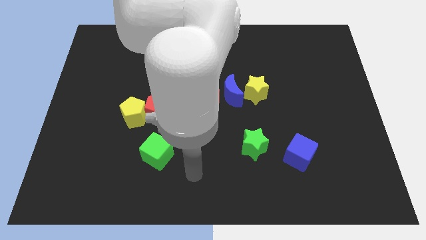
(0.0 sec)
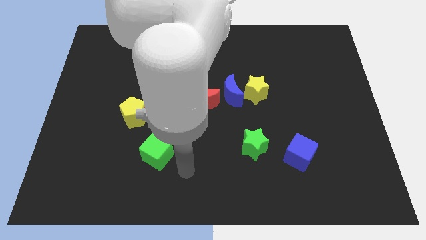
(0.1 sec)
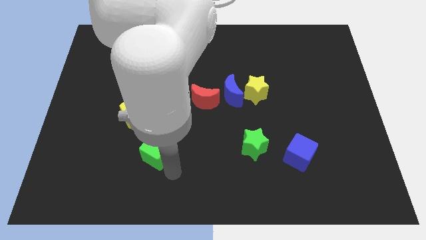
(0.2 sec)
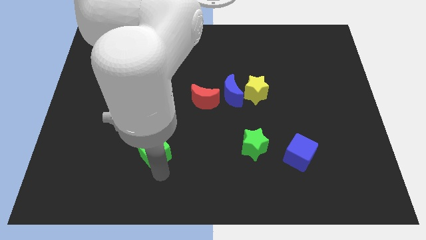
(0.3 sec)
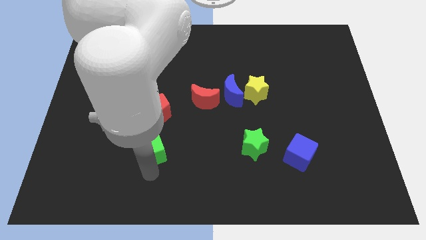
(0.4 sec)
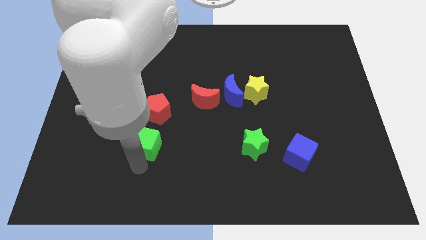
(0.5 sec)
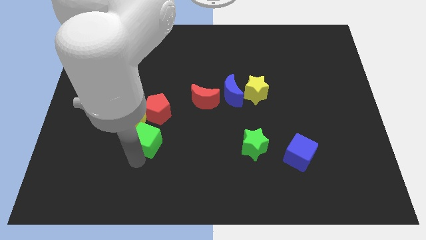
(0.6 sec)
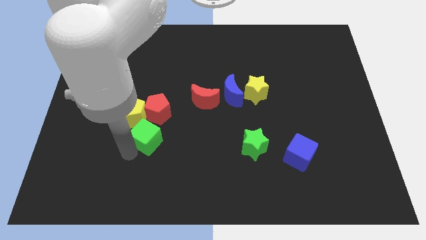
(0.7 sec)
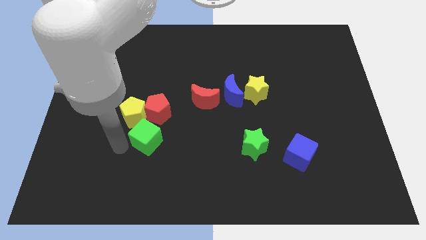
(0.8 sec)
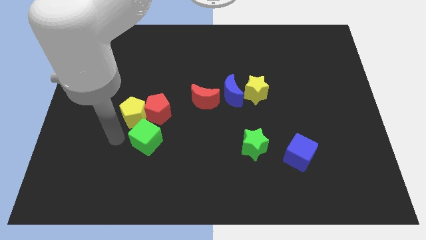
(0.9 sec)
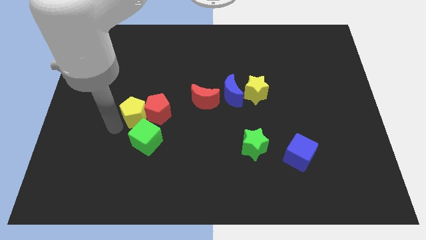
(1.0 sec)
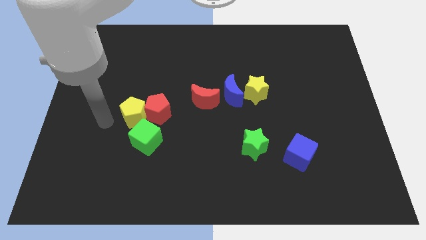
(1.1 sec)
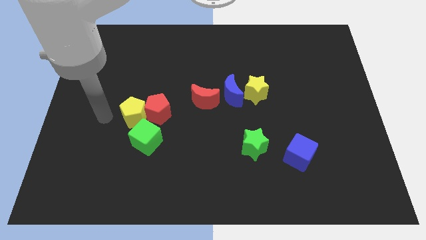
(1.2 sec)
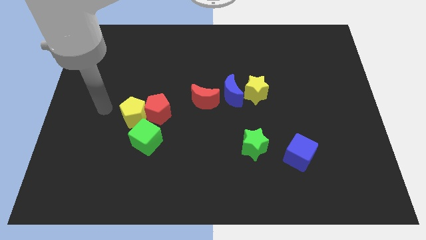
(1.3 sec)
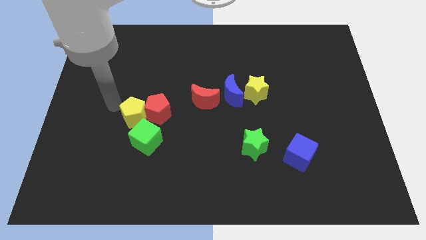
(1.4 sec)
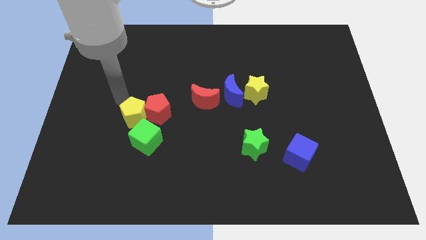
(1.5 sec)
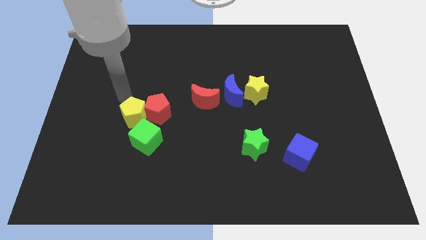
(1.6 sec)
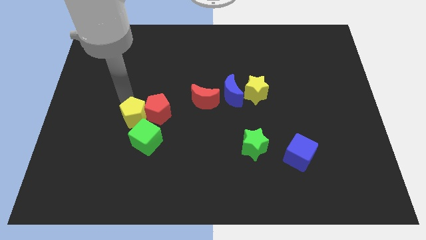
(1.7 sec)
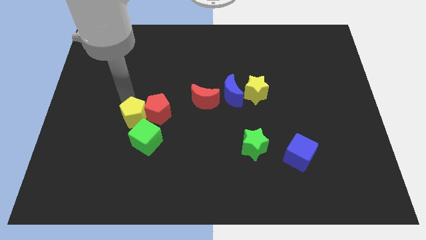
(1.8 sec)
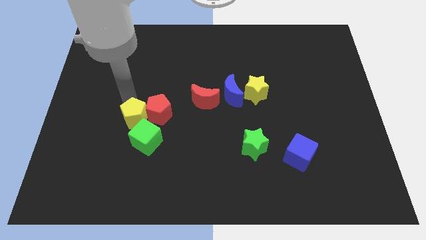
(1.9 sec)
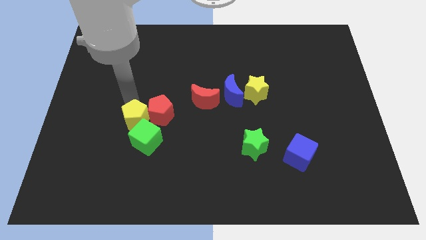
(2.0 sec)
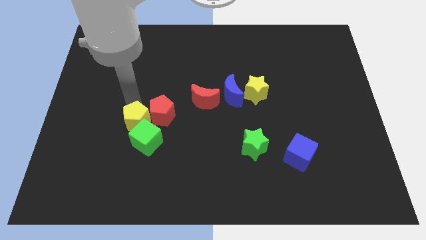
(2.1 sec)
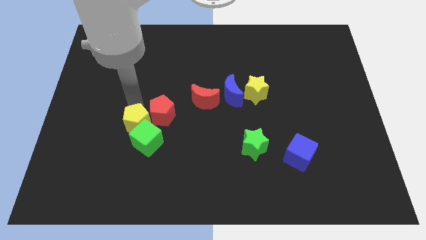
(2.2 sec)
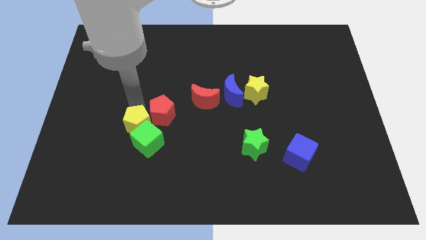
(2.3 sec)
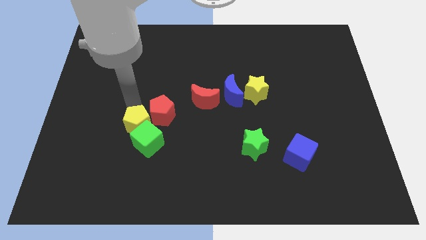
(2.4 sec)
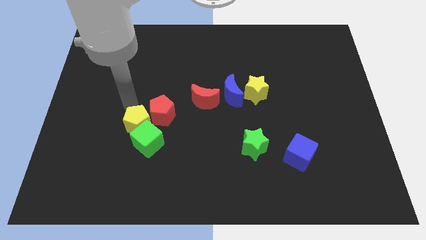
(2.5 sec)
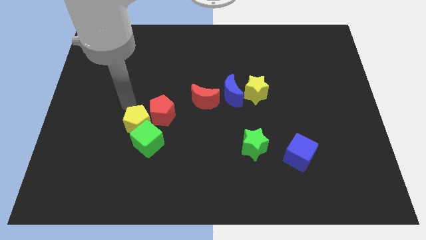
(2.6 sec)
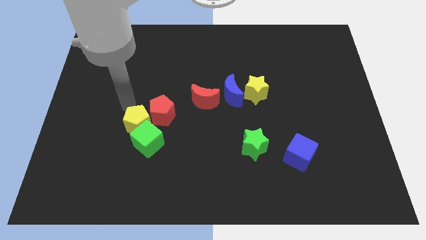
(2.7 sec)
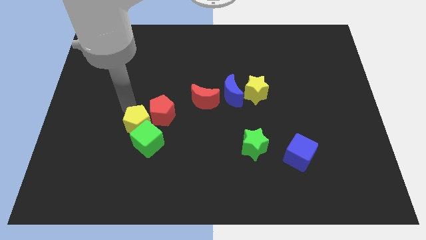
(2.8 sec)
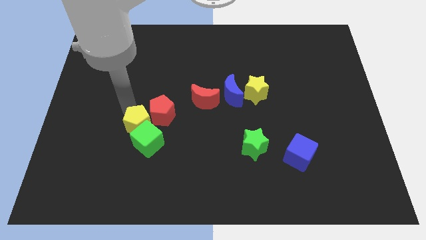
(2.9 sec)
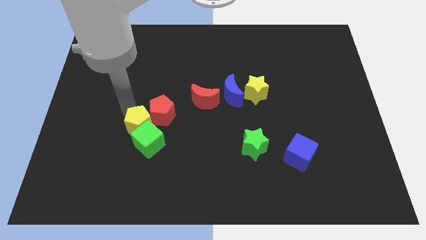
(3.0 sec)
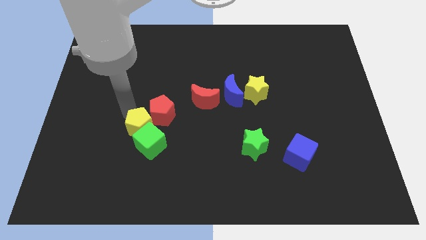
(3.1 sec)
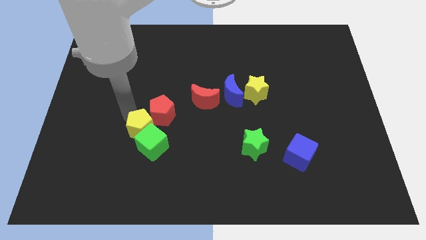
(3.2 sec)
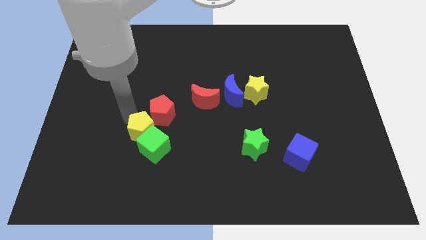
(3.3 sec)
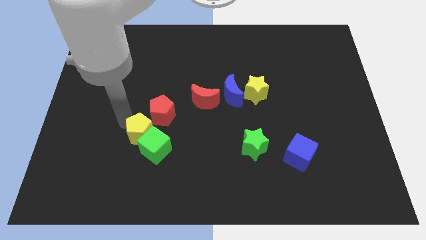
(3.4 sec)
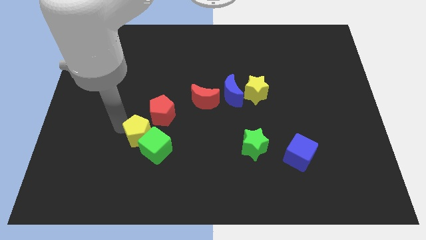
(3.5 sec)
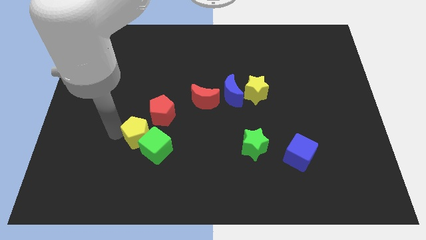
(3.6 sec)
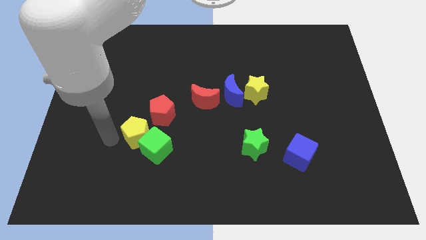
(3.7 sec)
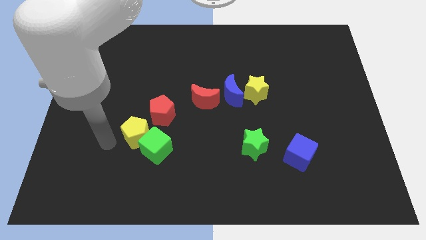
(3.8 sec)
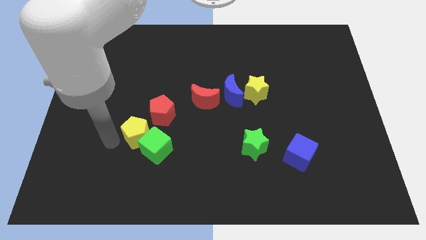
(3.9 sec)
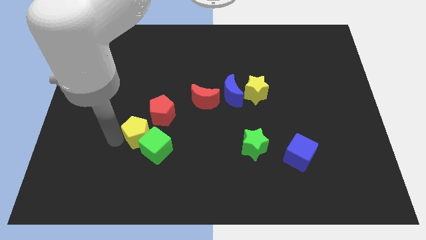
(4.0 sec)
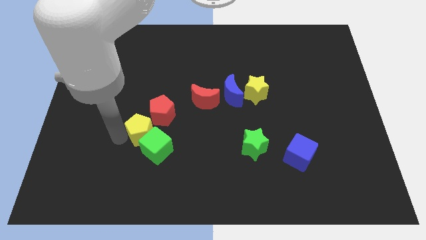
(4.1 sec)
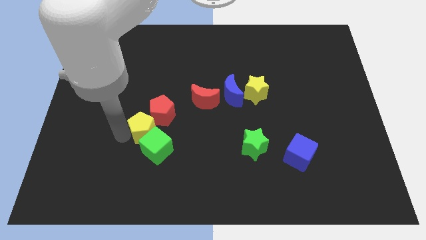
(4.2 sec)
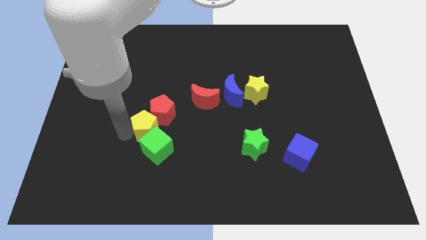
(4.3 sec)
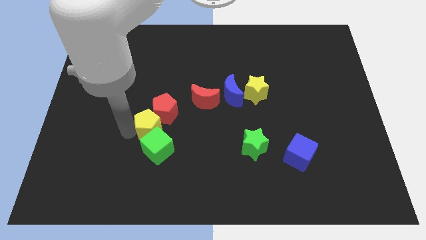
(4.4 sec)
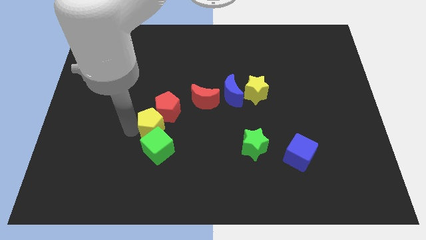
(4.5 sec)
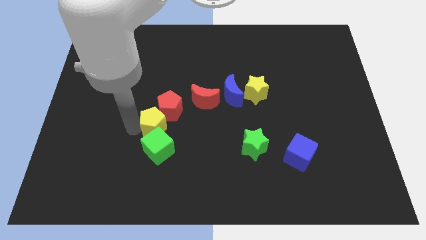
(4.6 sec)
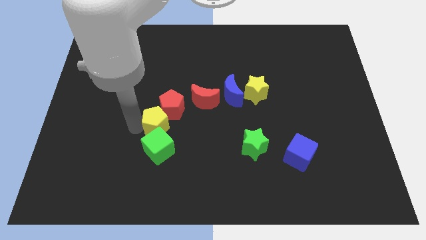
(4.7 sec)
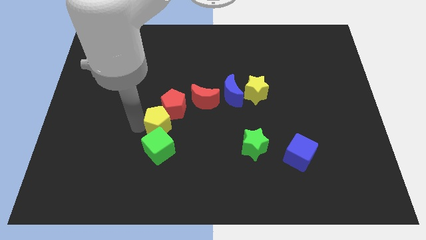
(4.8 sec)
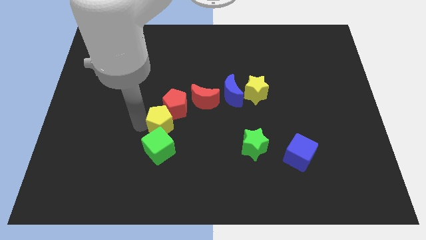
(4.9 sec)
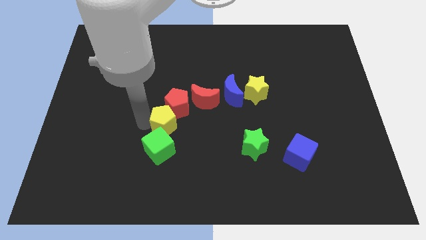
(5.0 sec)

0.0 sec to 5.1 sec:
push the yellow pentagon slightly to the right

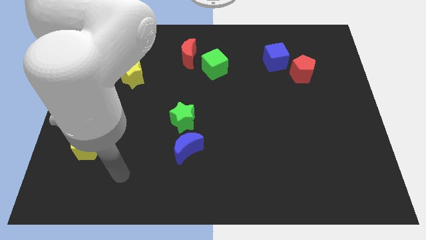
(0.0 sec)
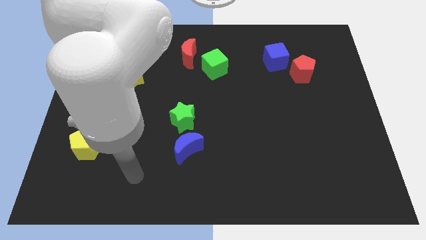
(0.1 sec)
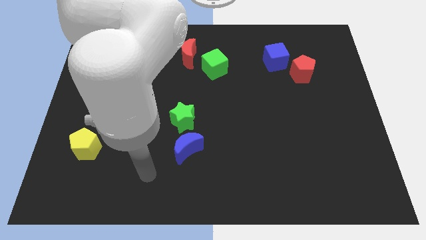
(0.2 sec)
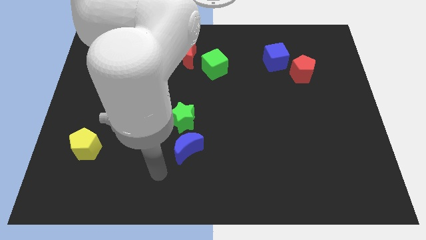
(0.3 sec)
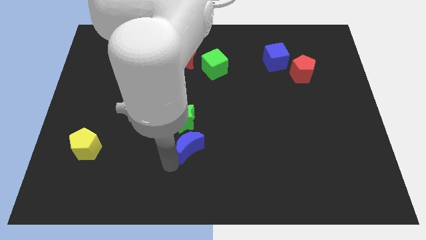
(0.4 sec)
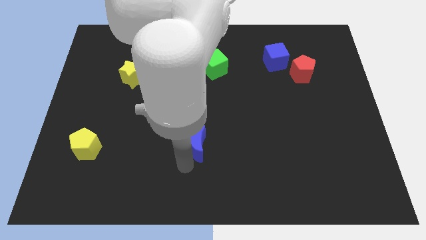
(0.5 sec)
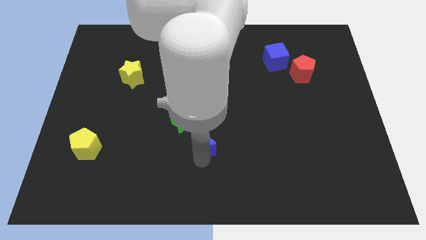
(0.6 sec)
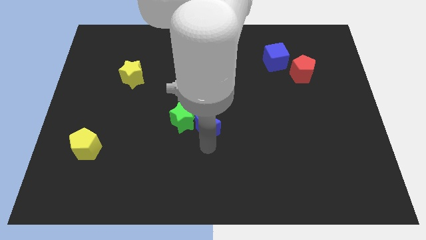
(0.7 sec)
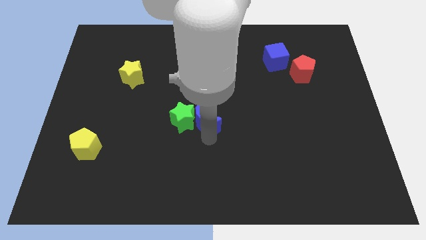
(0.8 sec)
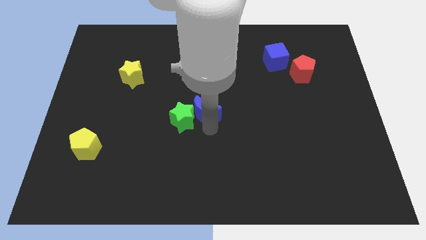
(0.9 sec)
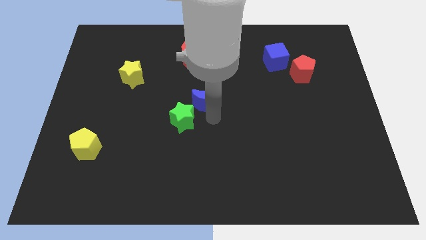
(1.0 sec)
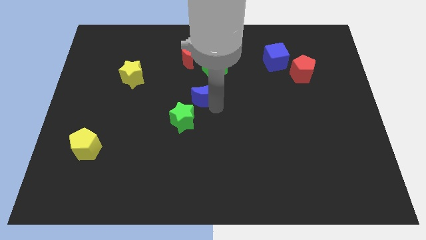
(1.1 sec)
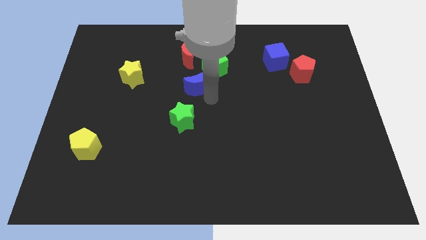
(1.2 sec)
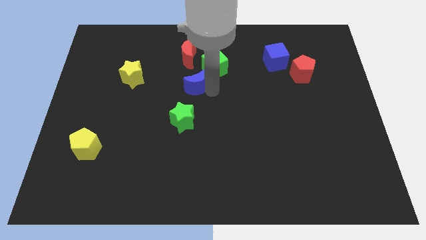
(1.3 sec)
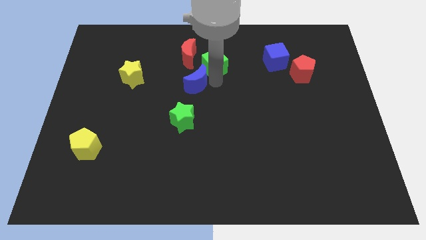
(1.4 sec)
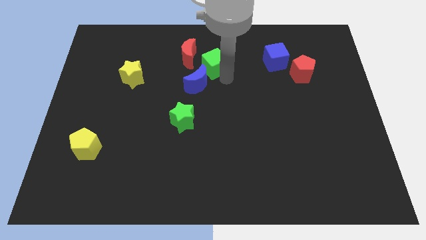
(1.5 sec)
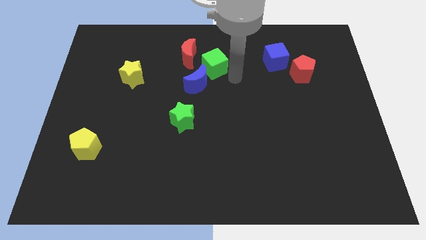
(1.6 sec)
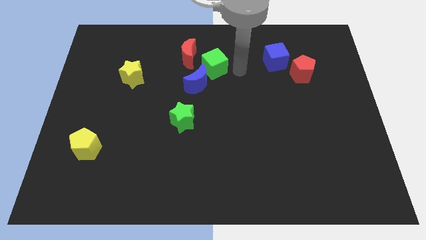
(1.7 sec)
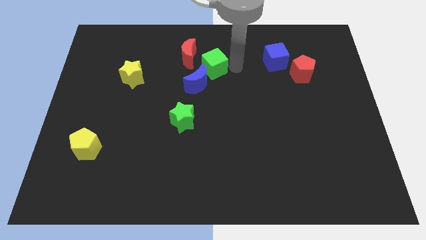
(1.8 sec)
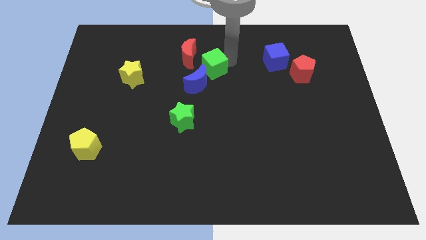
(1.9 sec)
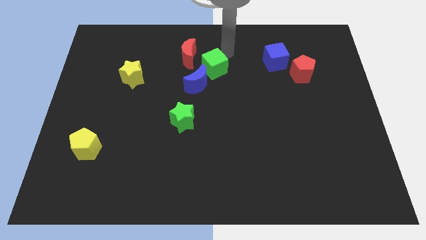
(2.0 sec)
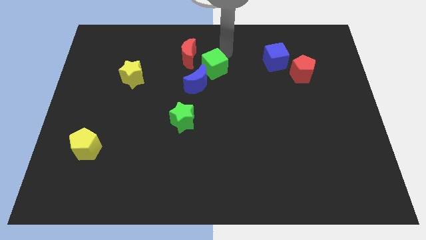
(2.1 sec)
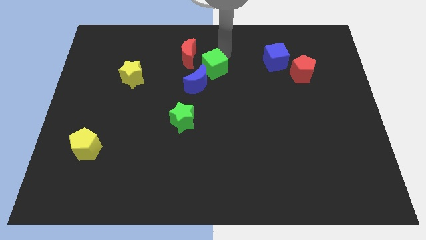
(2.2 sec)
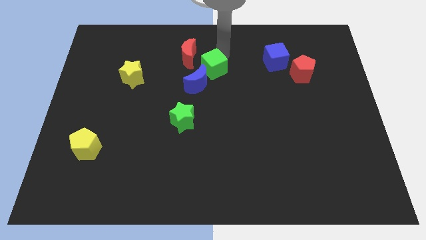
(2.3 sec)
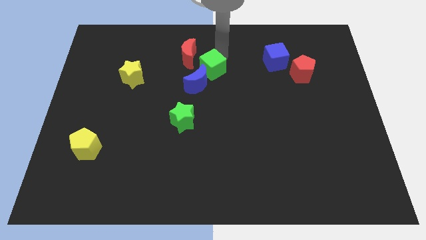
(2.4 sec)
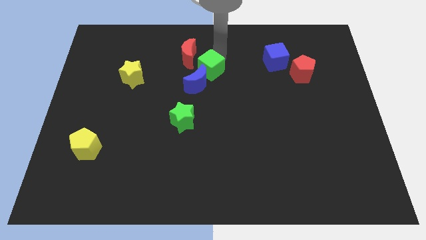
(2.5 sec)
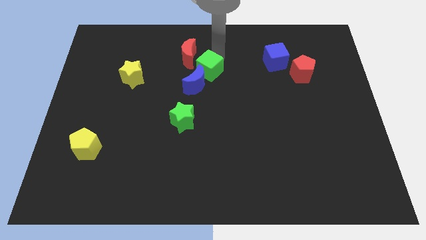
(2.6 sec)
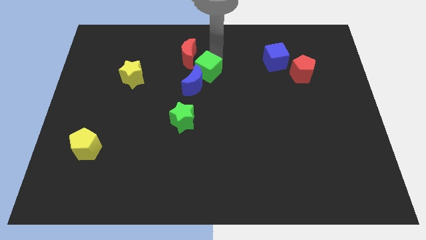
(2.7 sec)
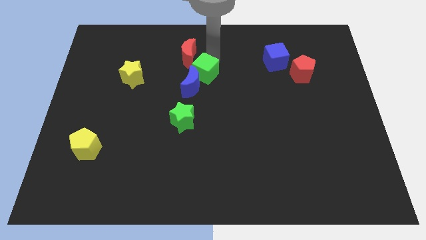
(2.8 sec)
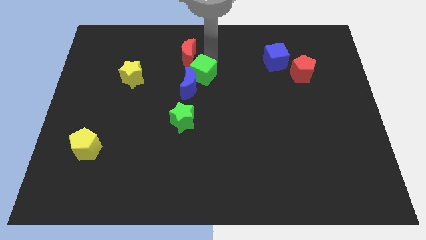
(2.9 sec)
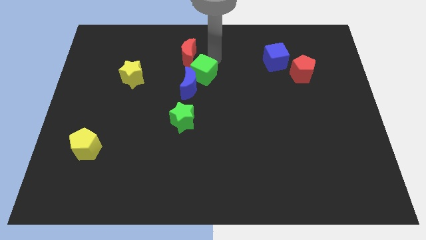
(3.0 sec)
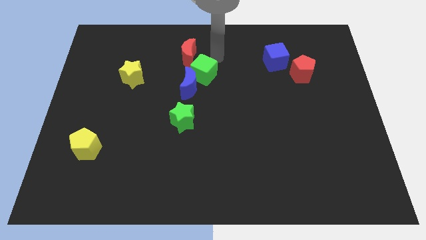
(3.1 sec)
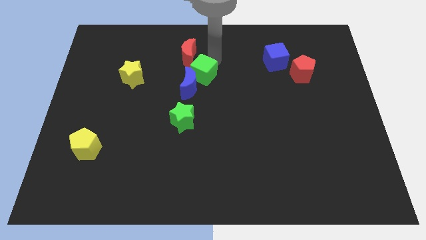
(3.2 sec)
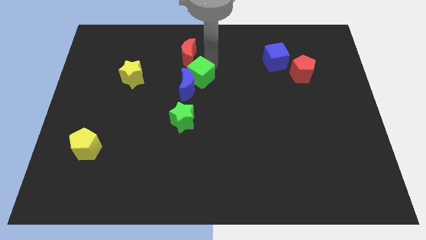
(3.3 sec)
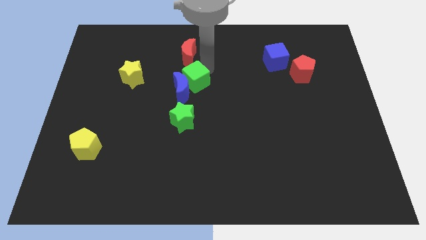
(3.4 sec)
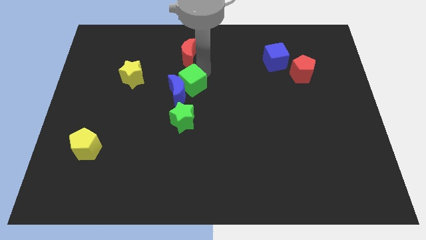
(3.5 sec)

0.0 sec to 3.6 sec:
slightly push the green cube down and to the left
